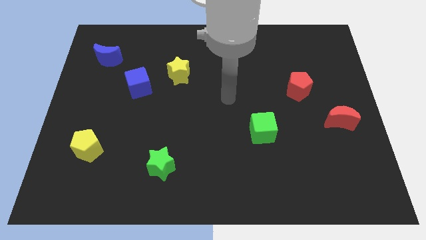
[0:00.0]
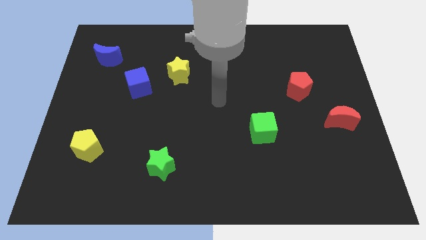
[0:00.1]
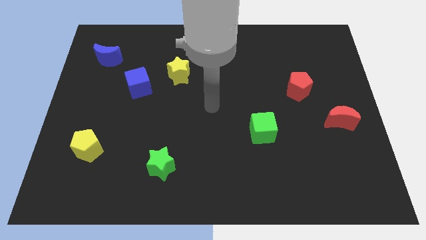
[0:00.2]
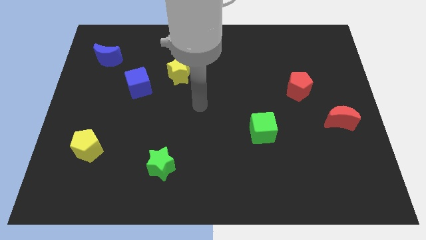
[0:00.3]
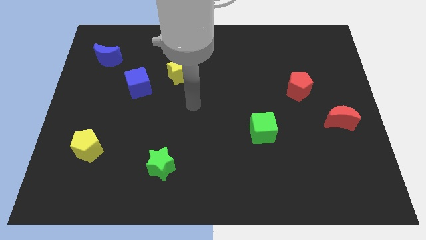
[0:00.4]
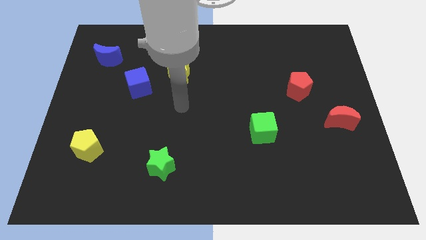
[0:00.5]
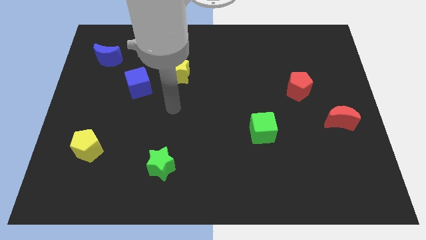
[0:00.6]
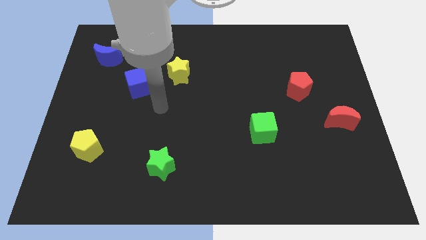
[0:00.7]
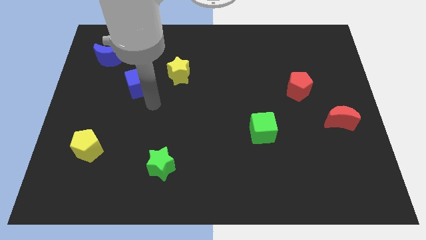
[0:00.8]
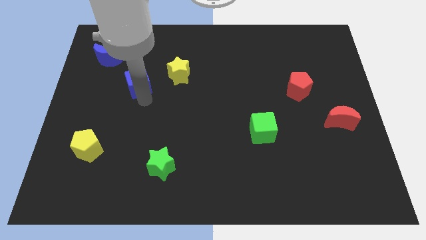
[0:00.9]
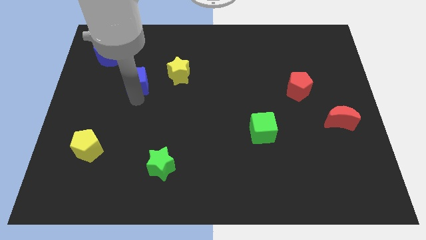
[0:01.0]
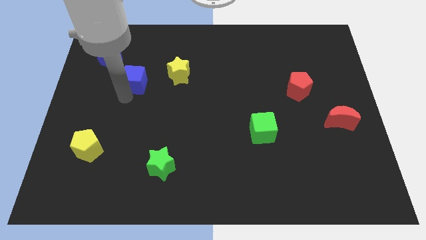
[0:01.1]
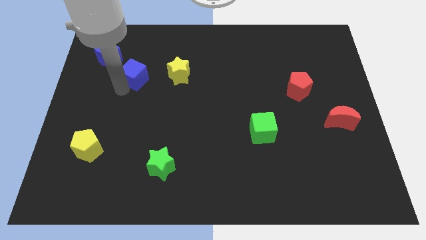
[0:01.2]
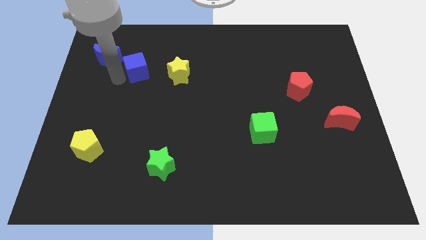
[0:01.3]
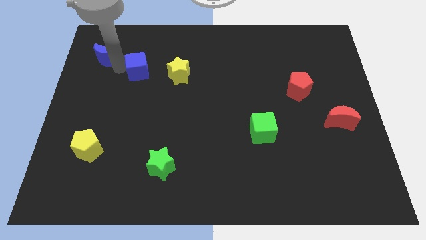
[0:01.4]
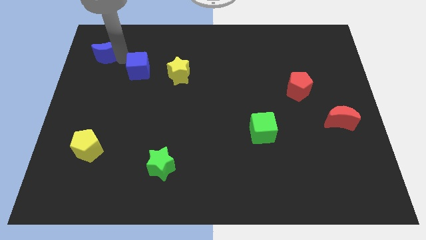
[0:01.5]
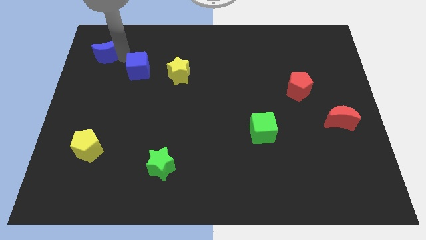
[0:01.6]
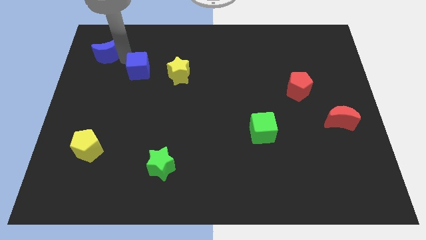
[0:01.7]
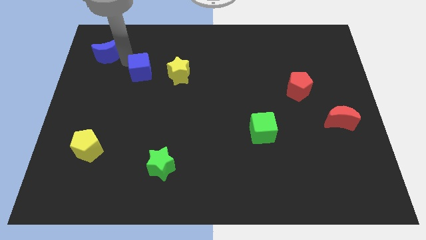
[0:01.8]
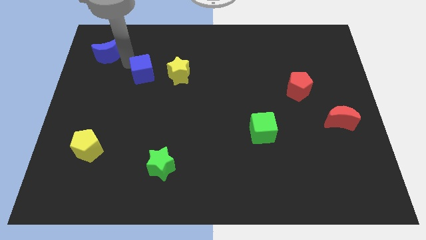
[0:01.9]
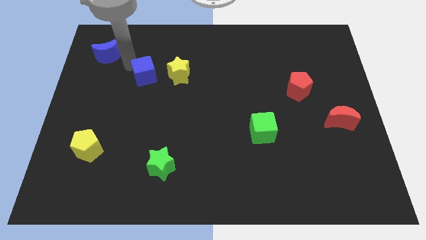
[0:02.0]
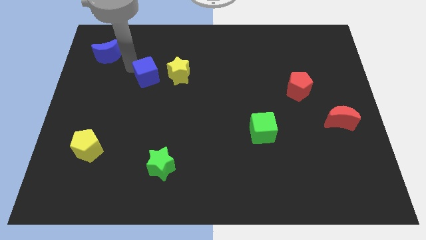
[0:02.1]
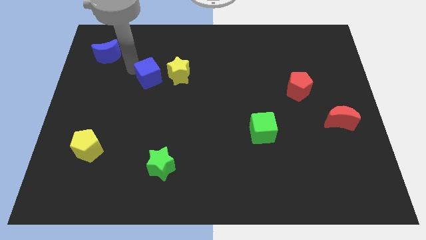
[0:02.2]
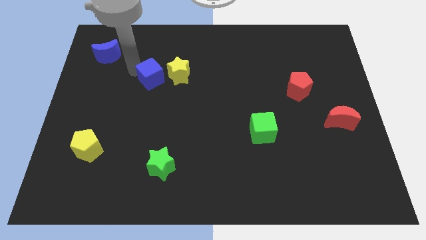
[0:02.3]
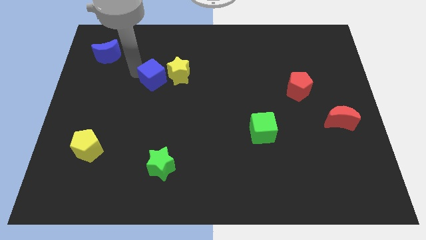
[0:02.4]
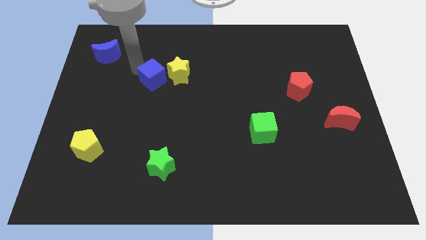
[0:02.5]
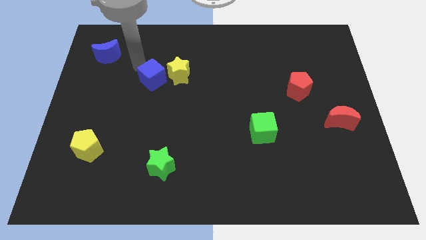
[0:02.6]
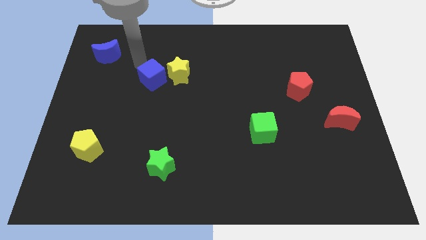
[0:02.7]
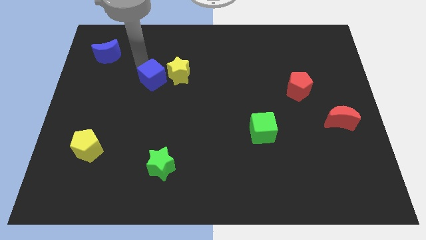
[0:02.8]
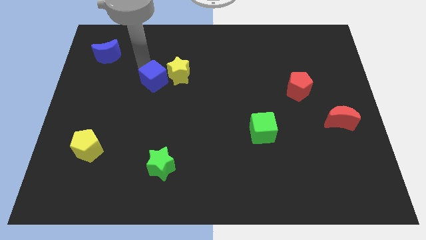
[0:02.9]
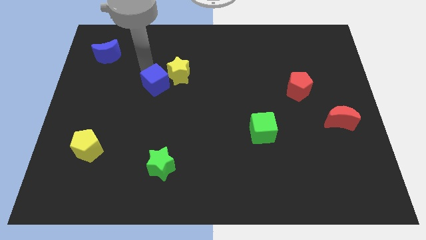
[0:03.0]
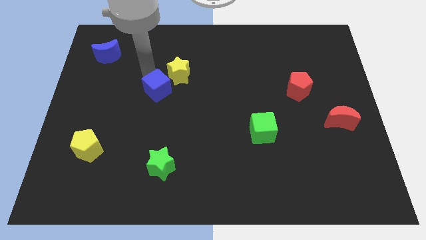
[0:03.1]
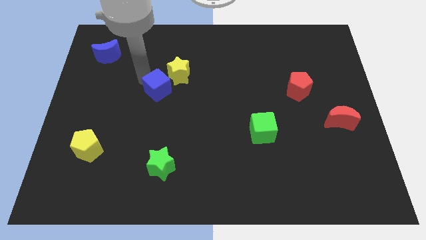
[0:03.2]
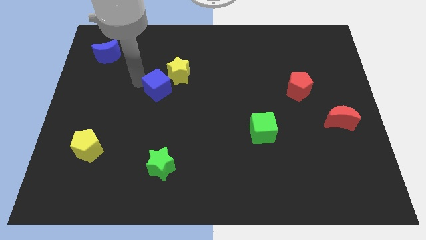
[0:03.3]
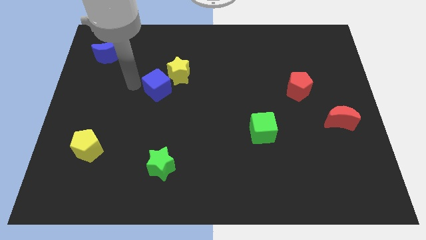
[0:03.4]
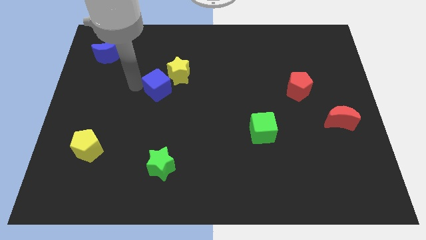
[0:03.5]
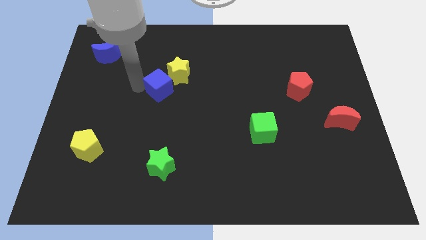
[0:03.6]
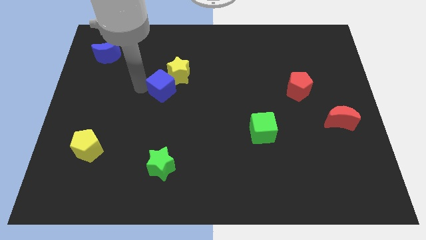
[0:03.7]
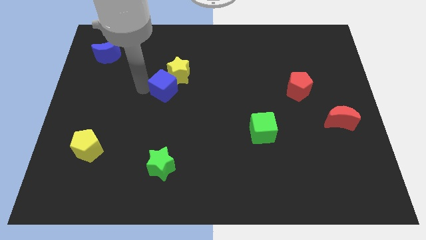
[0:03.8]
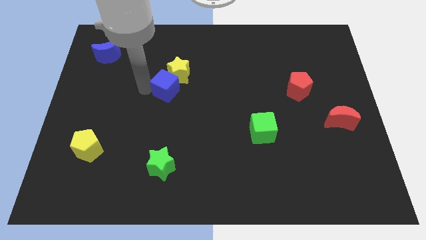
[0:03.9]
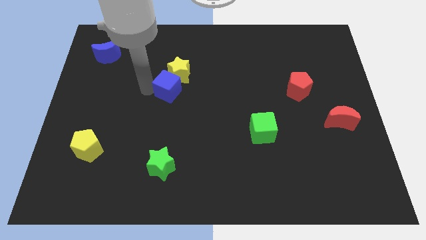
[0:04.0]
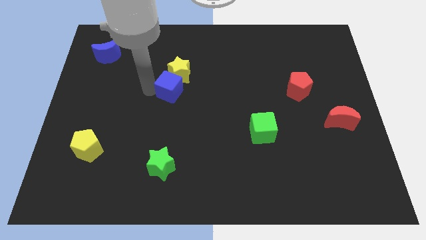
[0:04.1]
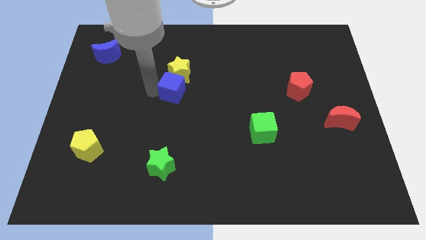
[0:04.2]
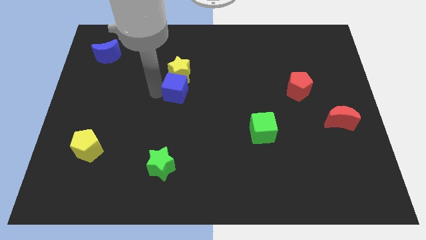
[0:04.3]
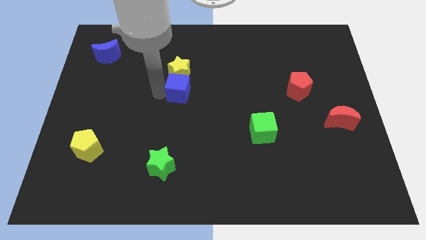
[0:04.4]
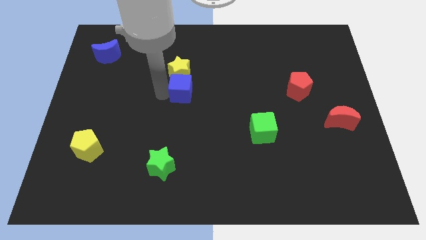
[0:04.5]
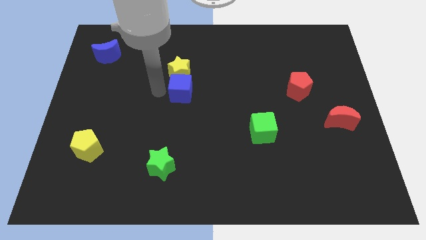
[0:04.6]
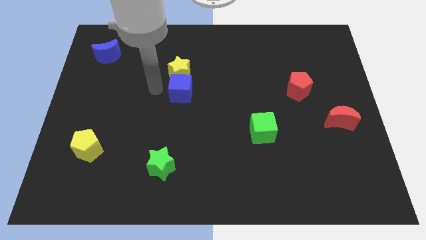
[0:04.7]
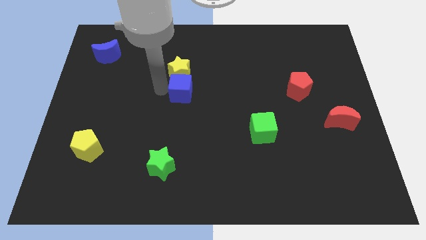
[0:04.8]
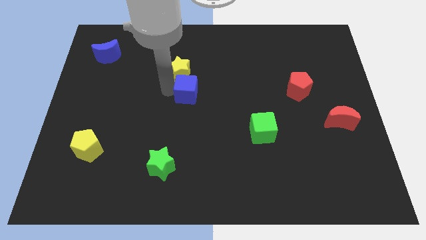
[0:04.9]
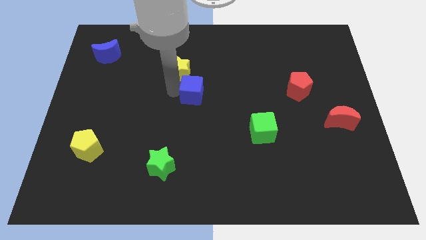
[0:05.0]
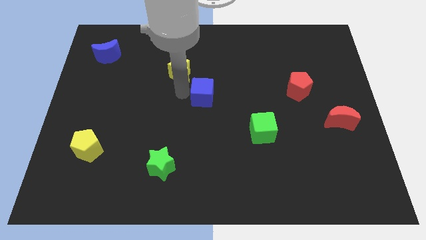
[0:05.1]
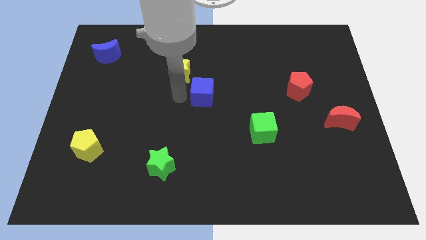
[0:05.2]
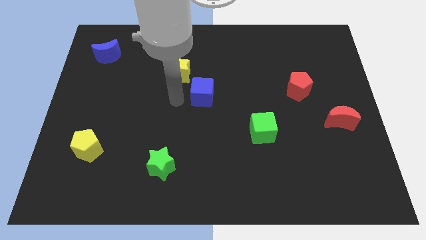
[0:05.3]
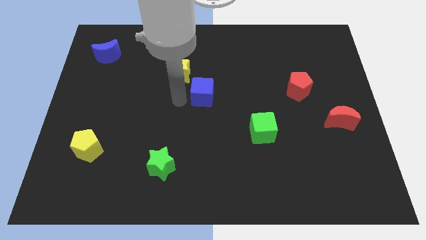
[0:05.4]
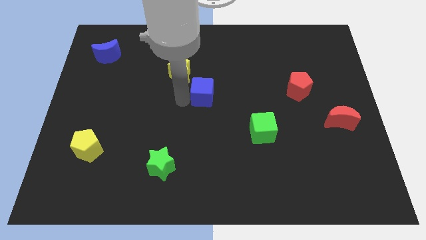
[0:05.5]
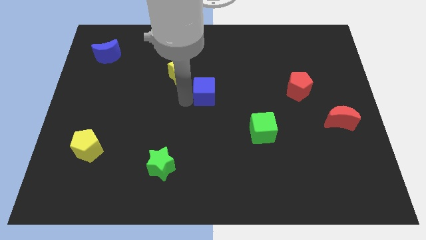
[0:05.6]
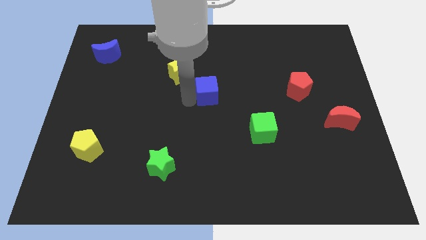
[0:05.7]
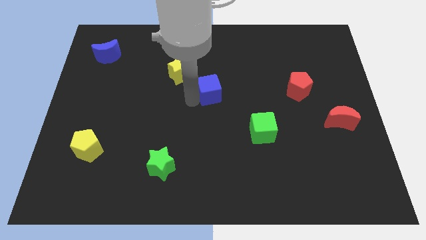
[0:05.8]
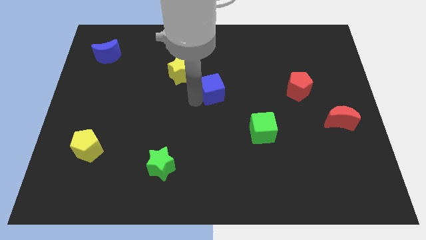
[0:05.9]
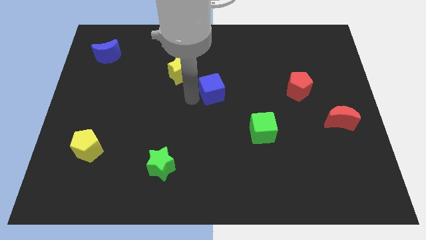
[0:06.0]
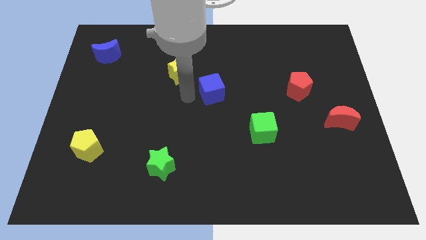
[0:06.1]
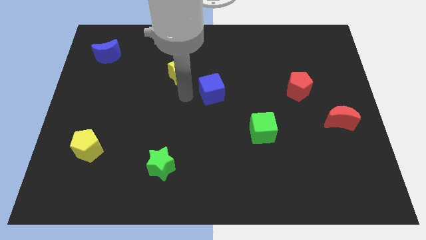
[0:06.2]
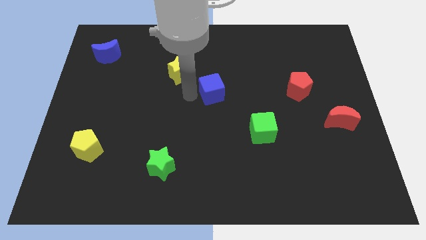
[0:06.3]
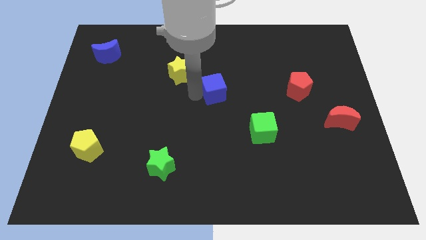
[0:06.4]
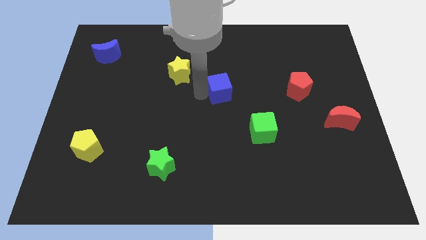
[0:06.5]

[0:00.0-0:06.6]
push the blue cube right

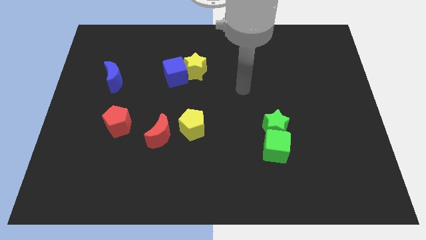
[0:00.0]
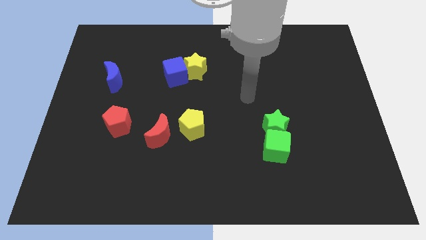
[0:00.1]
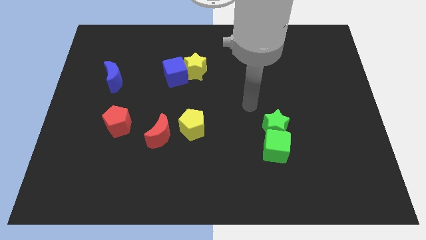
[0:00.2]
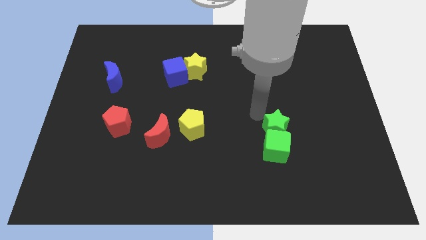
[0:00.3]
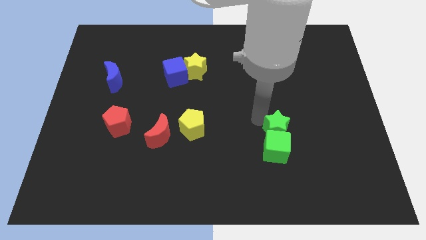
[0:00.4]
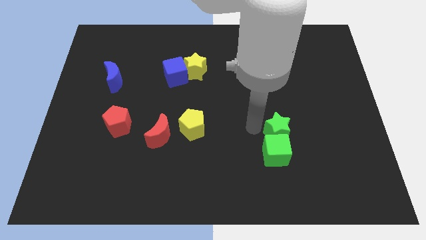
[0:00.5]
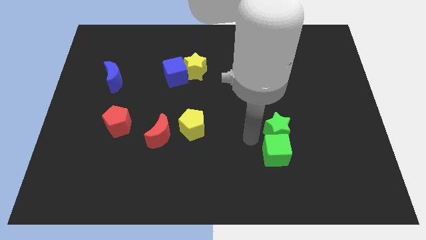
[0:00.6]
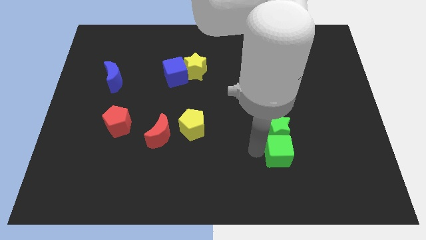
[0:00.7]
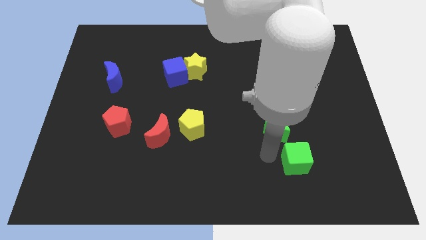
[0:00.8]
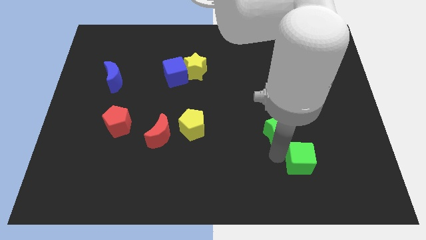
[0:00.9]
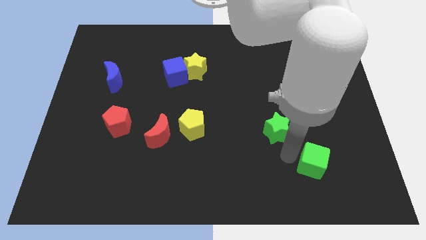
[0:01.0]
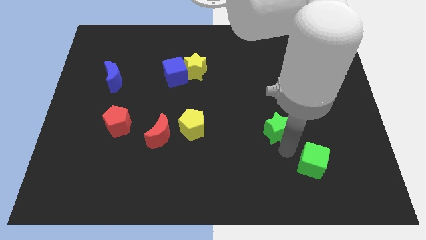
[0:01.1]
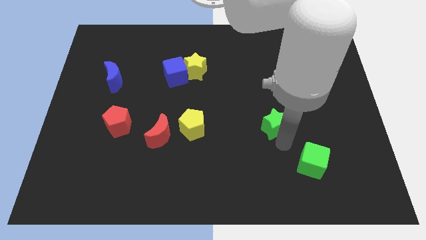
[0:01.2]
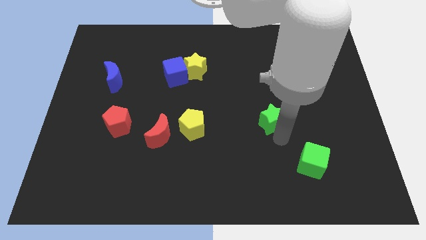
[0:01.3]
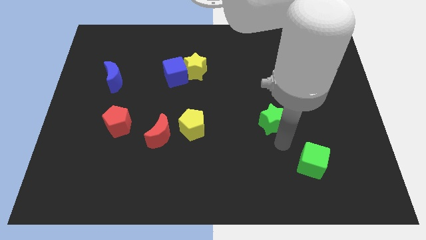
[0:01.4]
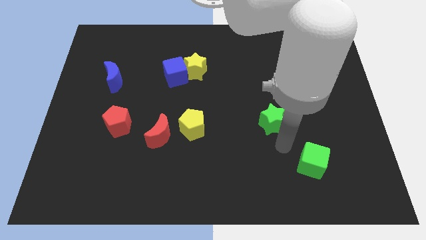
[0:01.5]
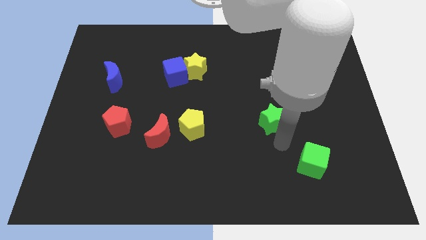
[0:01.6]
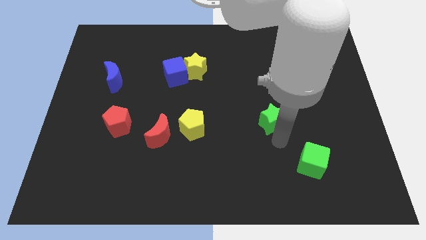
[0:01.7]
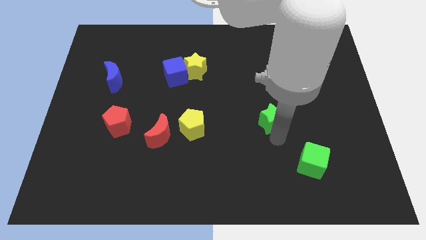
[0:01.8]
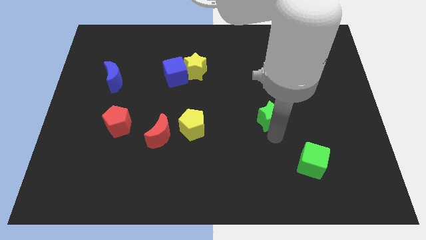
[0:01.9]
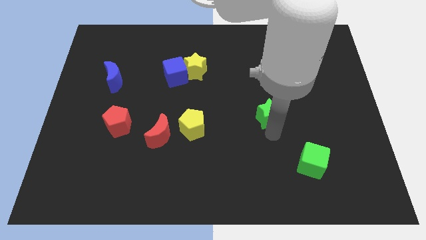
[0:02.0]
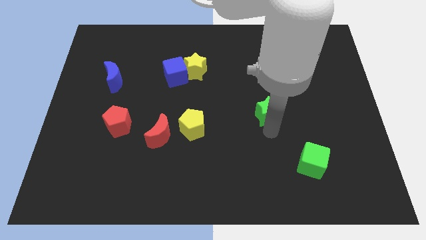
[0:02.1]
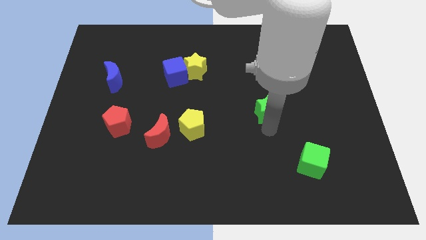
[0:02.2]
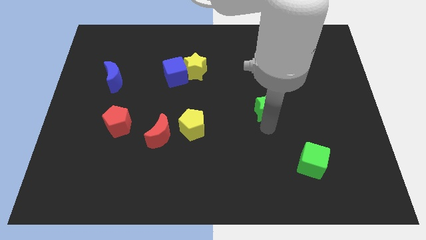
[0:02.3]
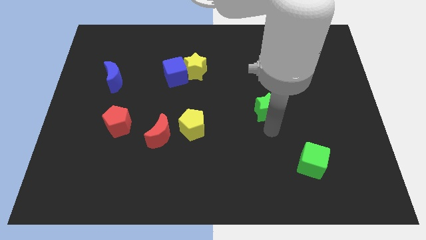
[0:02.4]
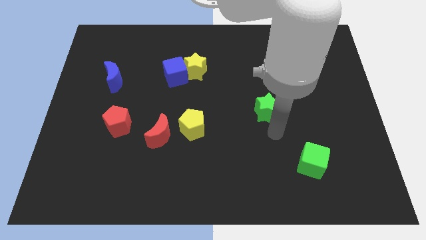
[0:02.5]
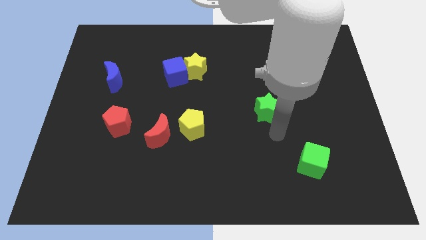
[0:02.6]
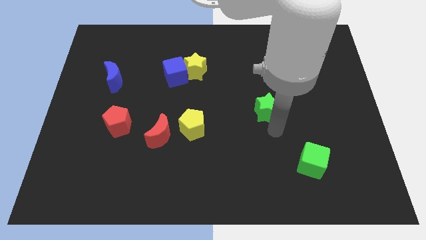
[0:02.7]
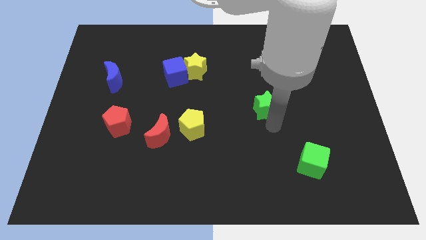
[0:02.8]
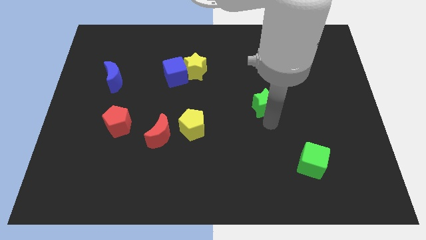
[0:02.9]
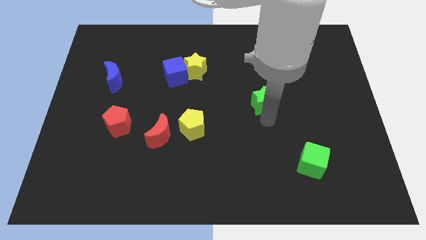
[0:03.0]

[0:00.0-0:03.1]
slightly slide the green star upwards
